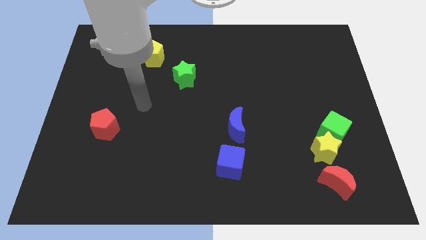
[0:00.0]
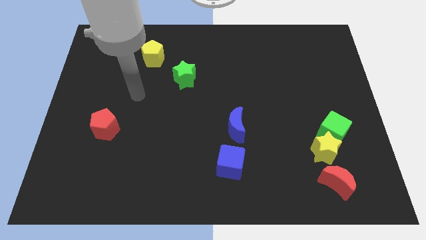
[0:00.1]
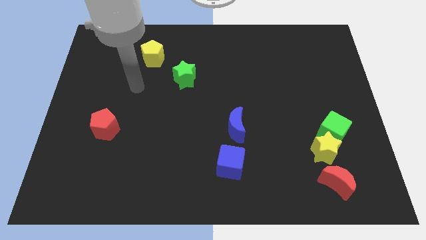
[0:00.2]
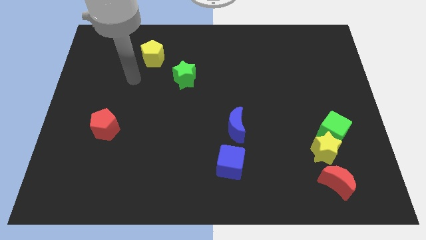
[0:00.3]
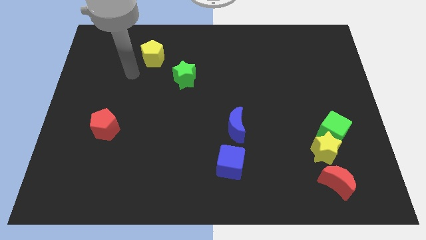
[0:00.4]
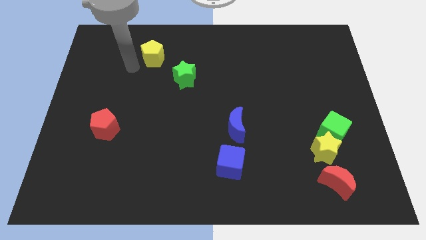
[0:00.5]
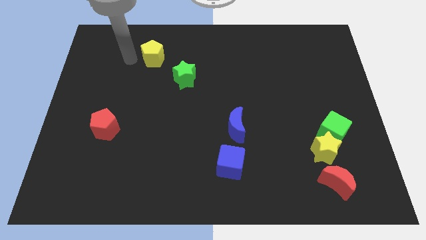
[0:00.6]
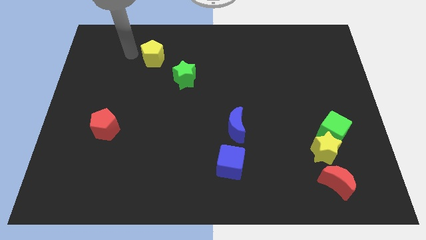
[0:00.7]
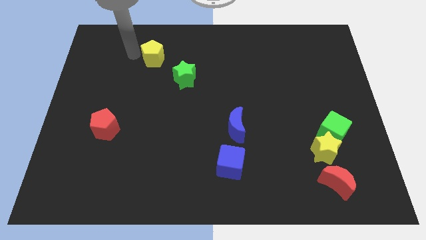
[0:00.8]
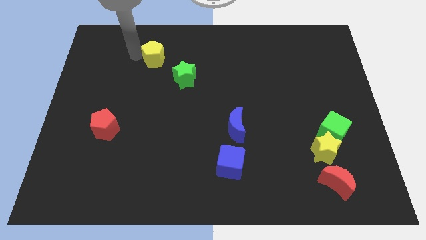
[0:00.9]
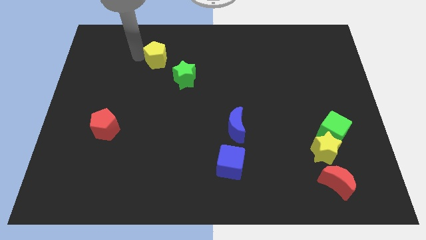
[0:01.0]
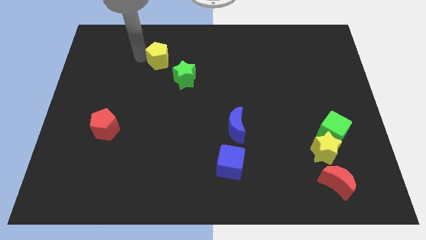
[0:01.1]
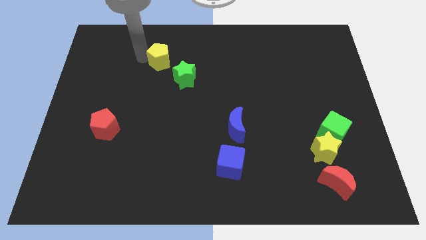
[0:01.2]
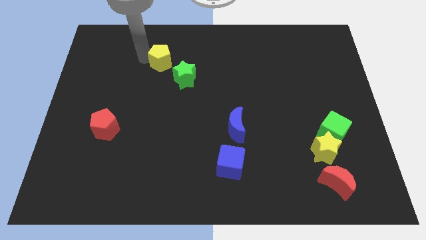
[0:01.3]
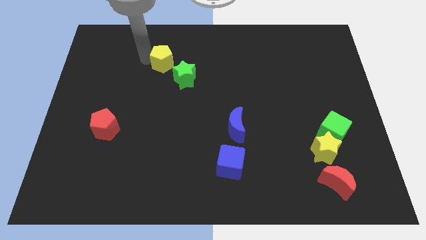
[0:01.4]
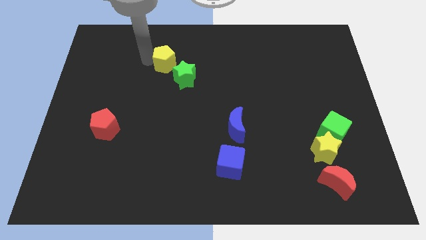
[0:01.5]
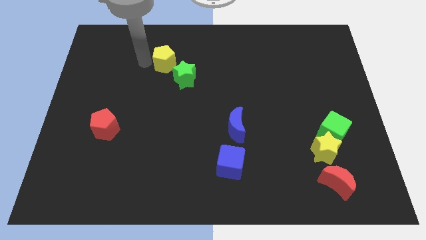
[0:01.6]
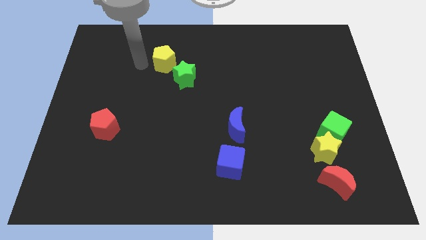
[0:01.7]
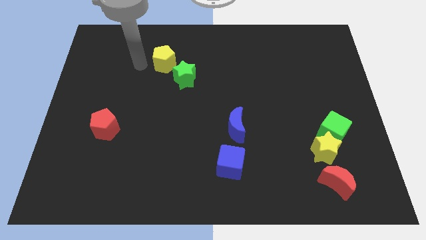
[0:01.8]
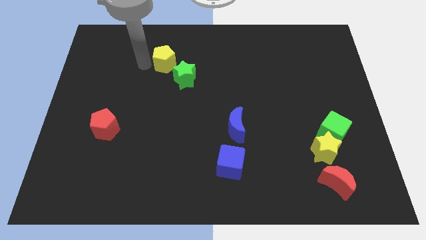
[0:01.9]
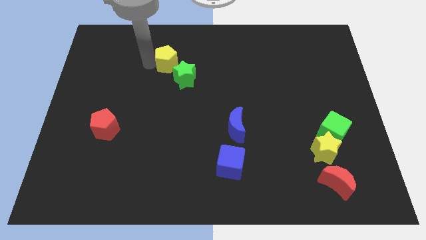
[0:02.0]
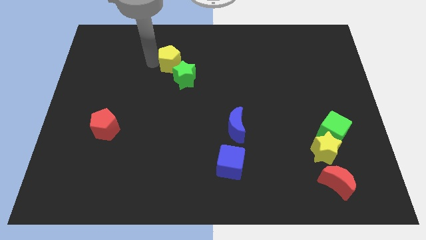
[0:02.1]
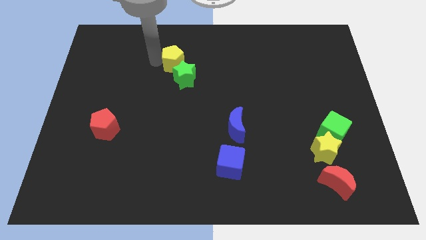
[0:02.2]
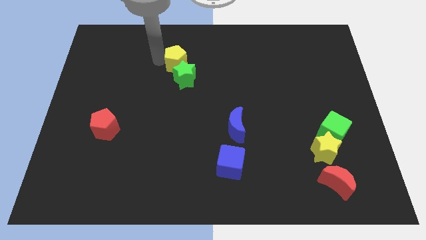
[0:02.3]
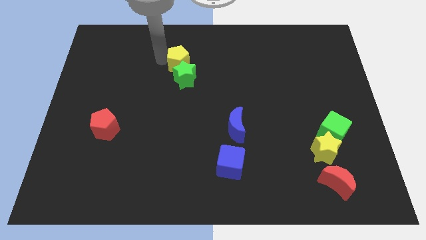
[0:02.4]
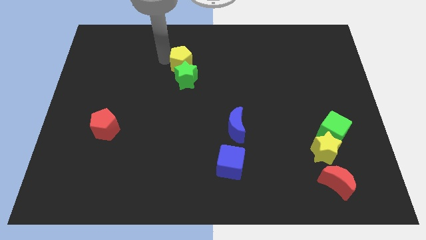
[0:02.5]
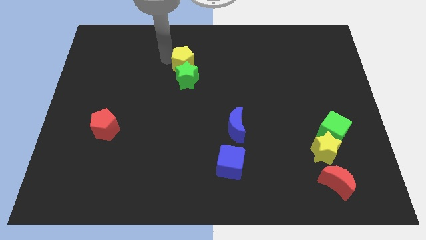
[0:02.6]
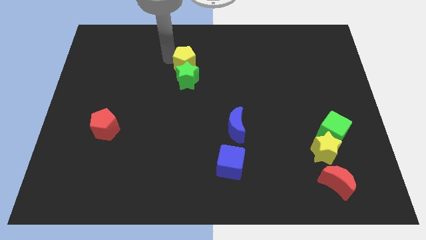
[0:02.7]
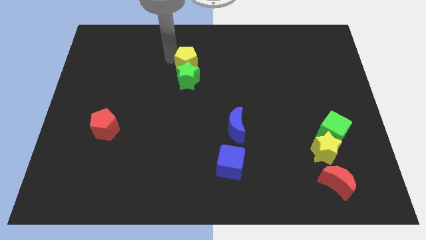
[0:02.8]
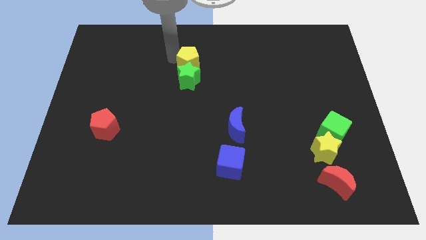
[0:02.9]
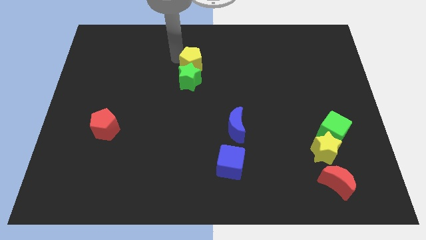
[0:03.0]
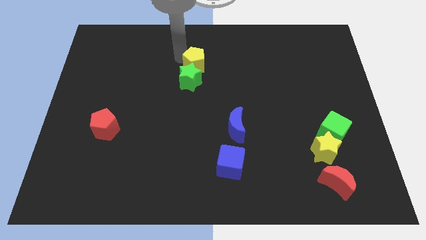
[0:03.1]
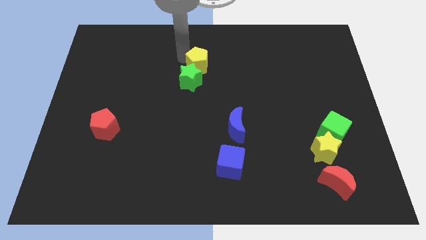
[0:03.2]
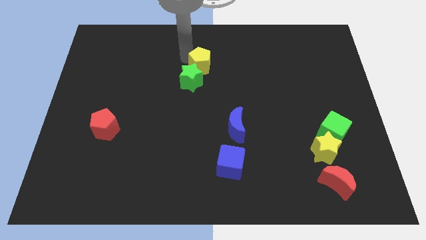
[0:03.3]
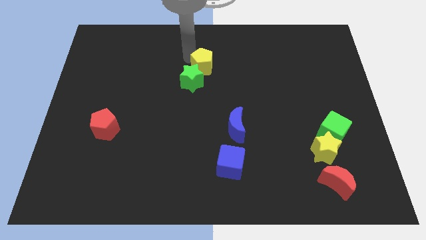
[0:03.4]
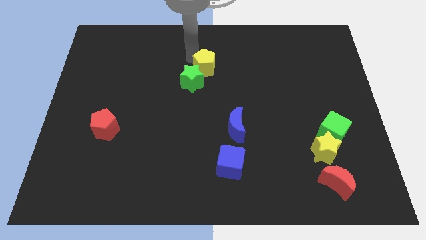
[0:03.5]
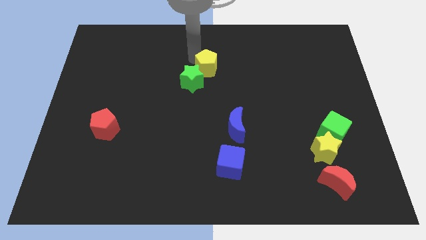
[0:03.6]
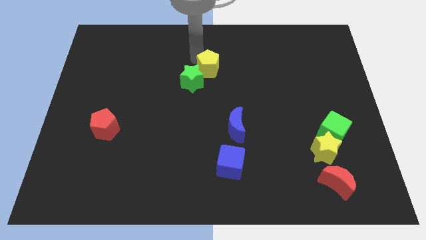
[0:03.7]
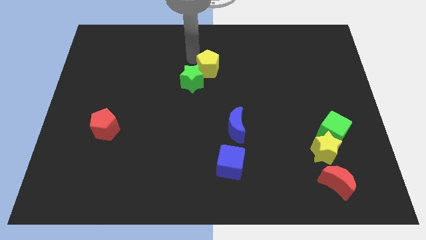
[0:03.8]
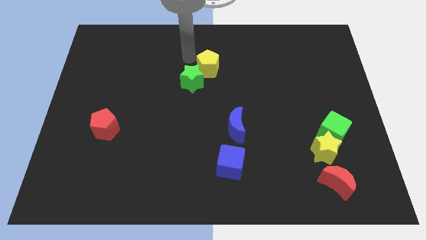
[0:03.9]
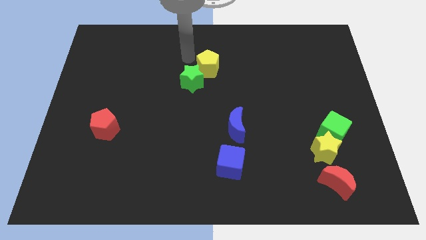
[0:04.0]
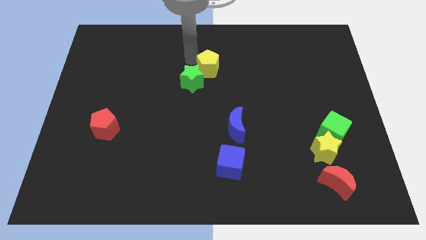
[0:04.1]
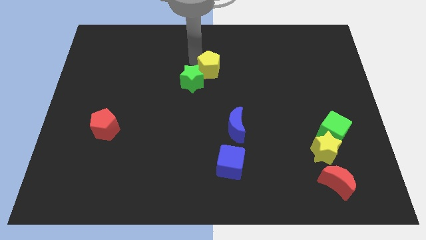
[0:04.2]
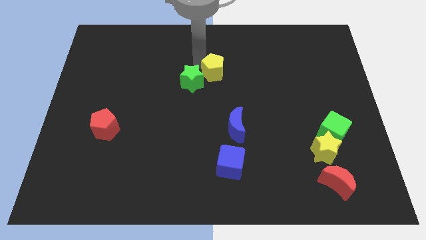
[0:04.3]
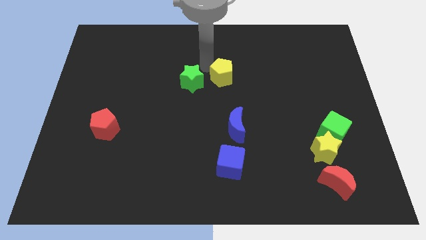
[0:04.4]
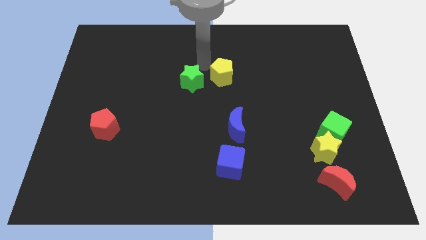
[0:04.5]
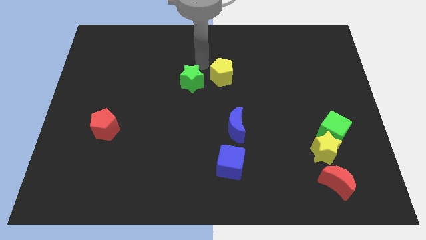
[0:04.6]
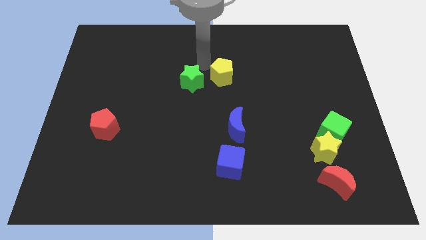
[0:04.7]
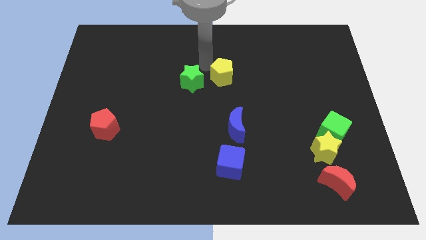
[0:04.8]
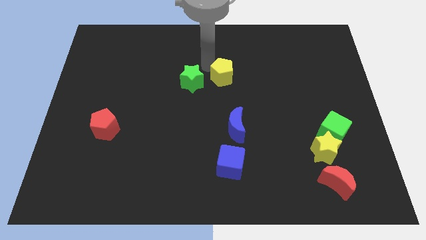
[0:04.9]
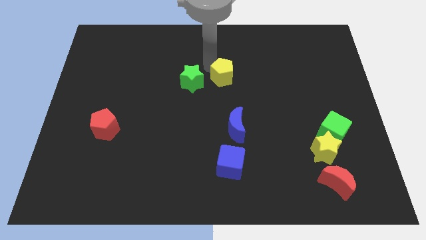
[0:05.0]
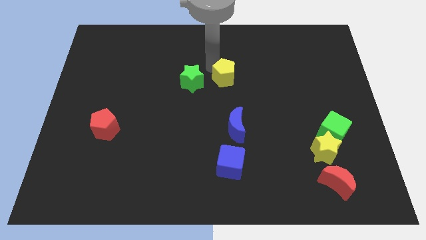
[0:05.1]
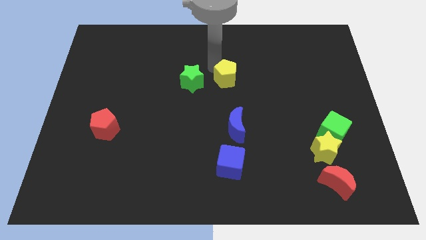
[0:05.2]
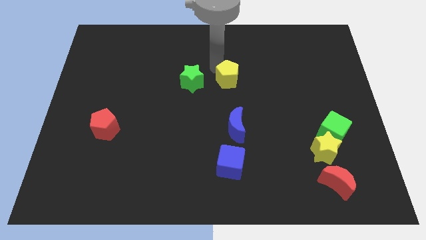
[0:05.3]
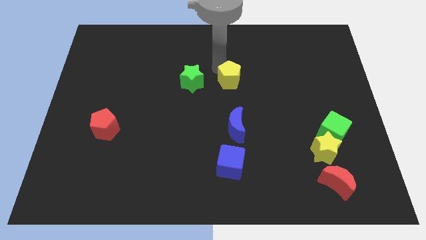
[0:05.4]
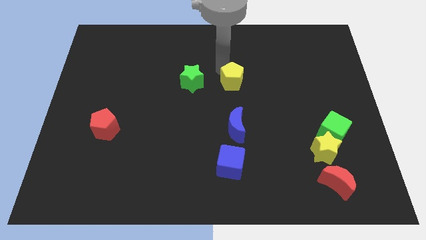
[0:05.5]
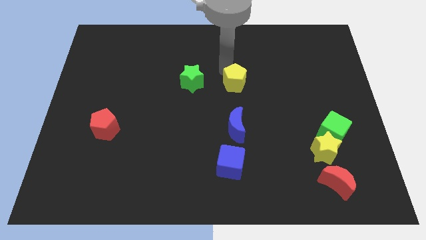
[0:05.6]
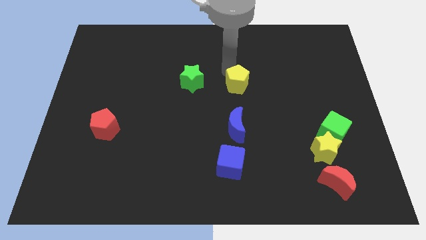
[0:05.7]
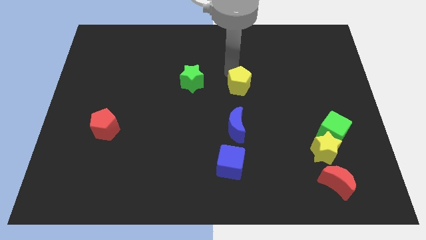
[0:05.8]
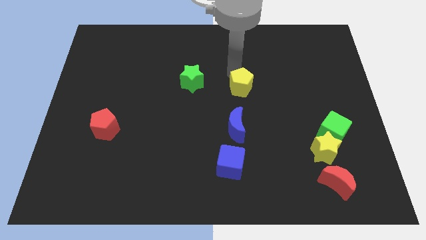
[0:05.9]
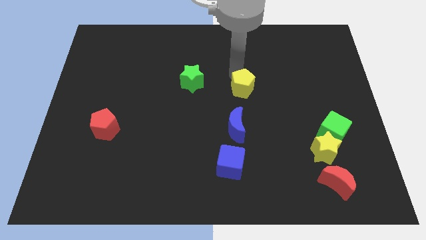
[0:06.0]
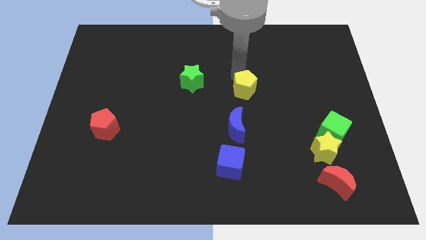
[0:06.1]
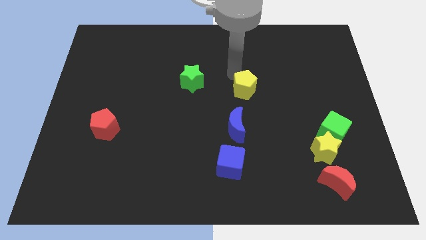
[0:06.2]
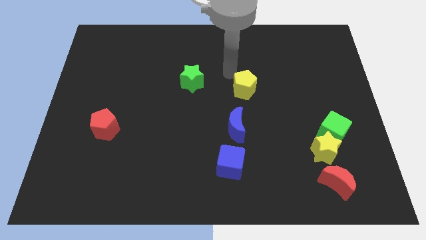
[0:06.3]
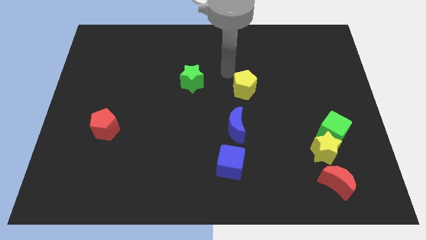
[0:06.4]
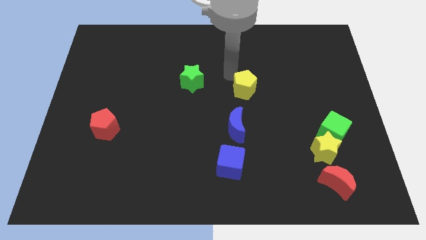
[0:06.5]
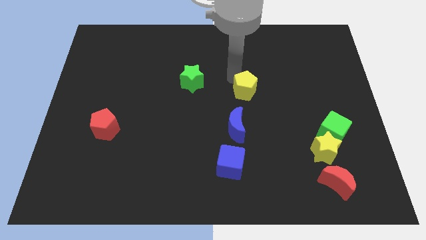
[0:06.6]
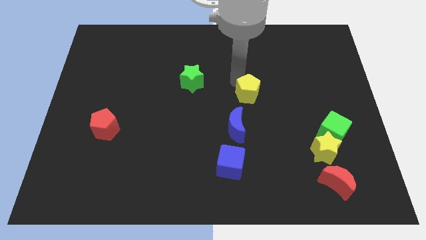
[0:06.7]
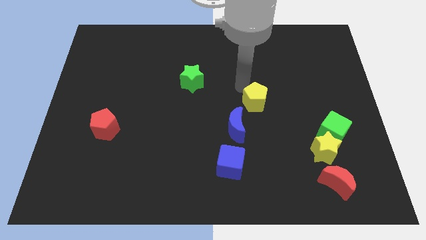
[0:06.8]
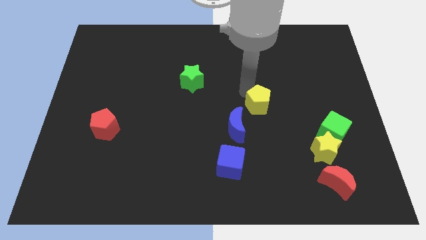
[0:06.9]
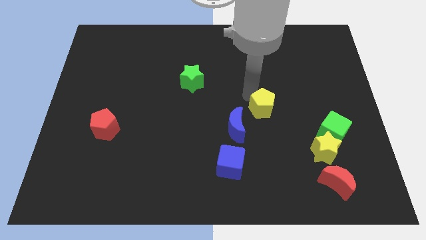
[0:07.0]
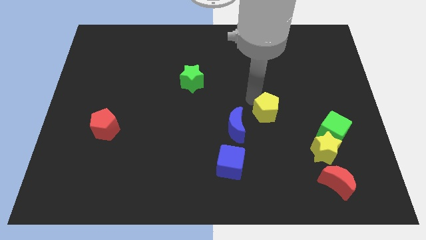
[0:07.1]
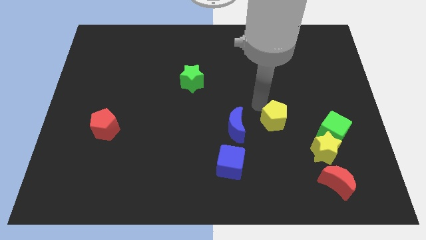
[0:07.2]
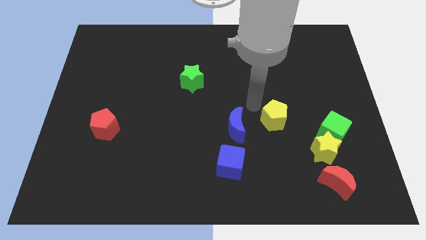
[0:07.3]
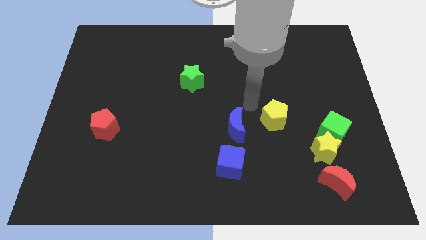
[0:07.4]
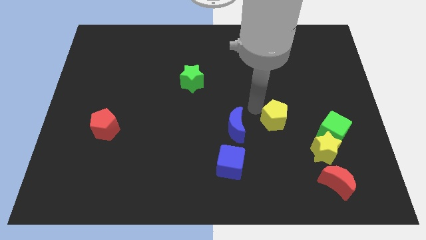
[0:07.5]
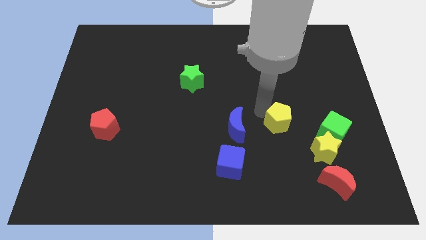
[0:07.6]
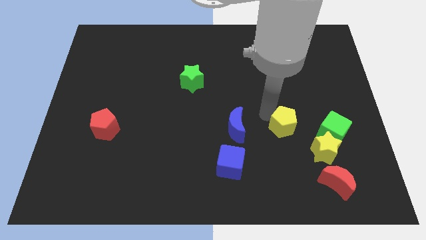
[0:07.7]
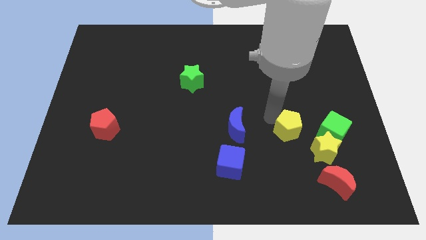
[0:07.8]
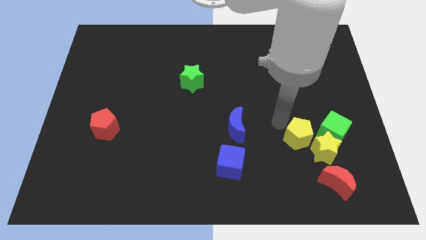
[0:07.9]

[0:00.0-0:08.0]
push the yellow pentagon towards the yellow star
